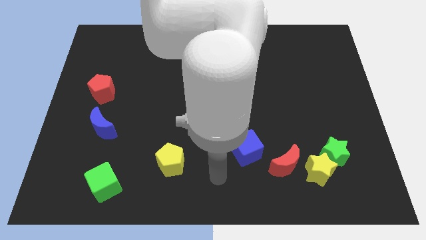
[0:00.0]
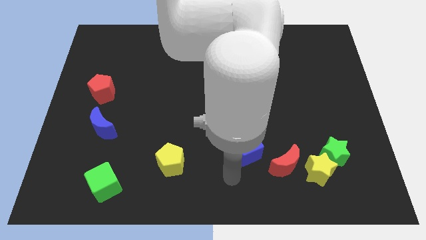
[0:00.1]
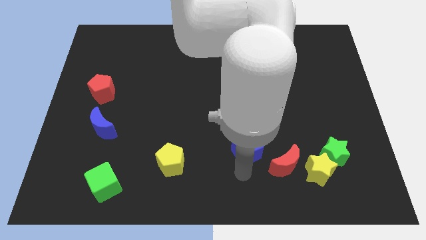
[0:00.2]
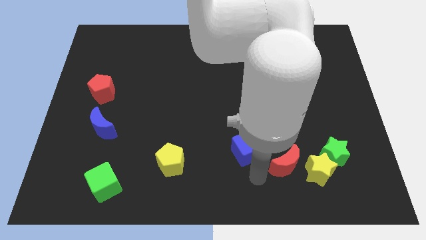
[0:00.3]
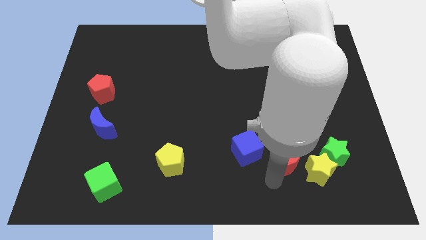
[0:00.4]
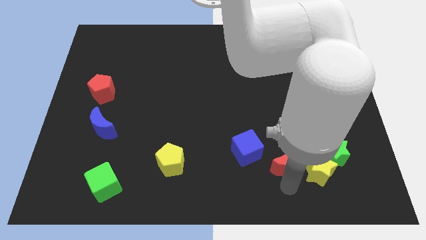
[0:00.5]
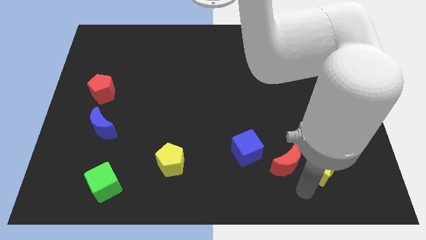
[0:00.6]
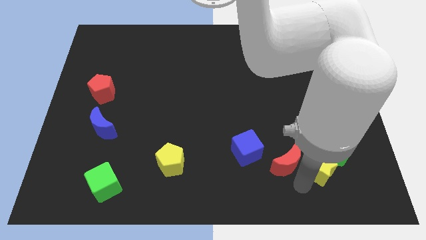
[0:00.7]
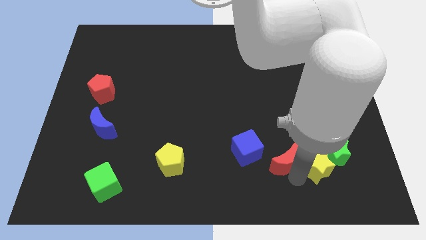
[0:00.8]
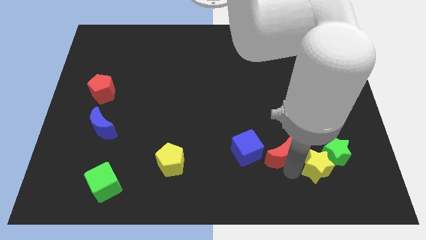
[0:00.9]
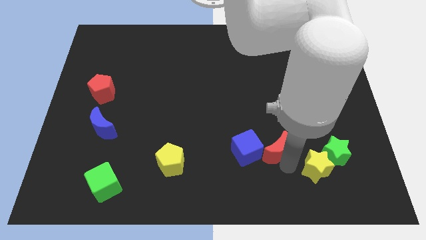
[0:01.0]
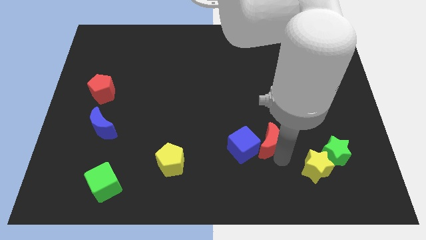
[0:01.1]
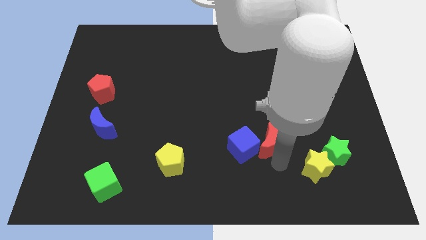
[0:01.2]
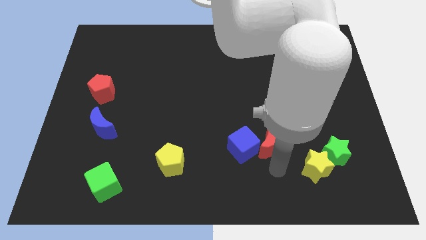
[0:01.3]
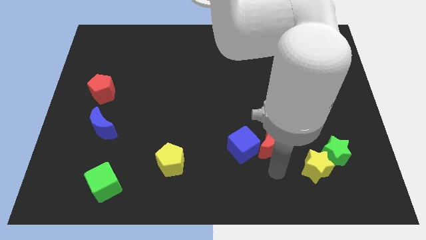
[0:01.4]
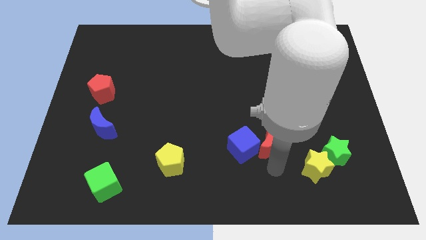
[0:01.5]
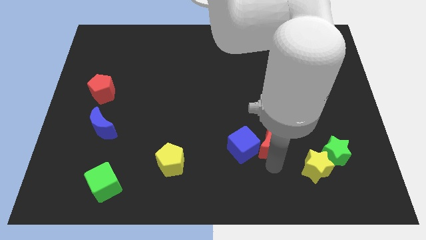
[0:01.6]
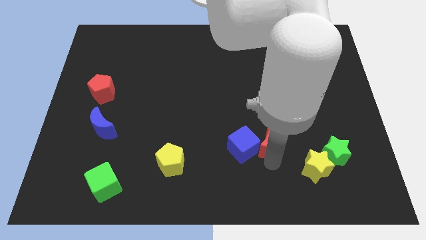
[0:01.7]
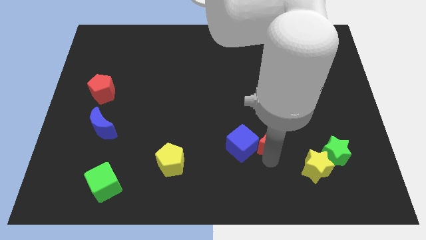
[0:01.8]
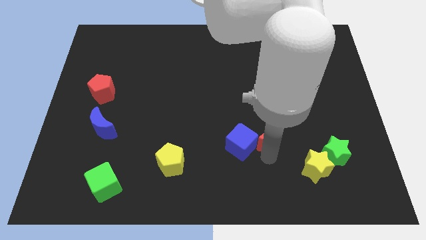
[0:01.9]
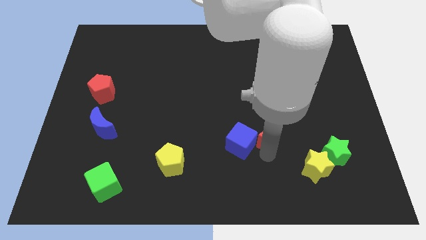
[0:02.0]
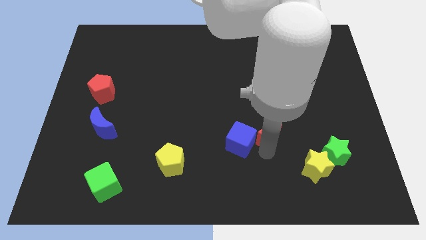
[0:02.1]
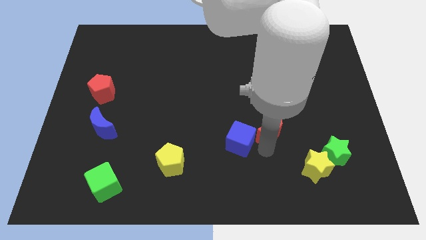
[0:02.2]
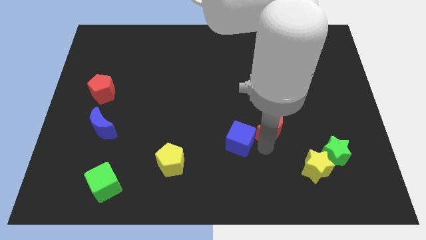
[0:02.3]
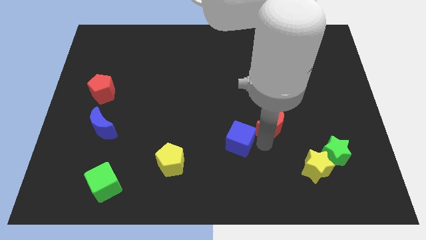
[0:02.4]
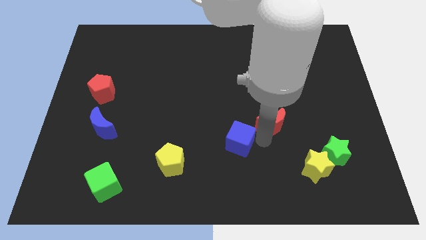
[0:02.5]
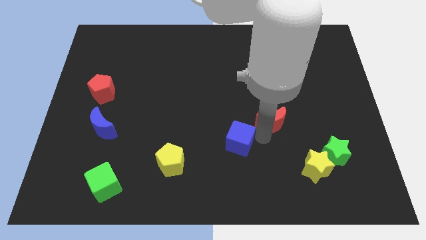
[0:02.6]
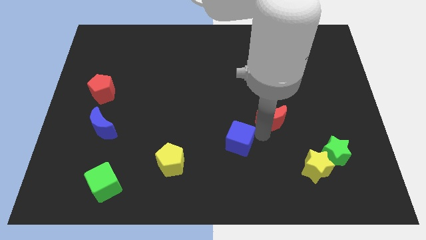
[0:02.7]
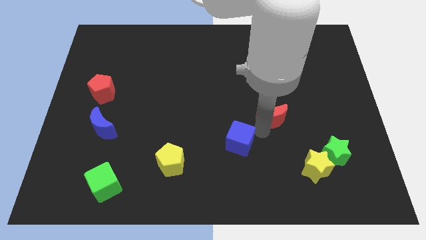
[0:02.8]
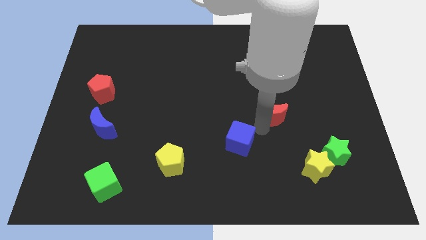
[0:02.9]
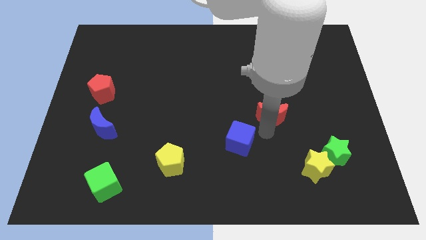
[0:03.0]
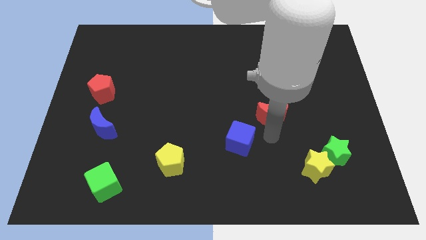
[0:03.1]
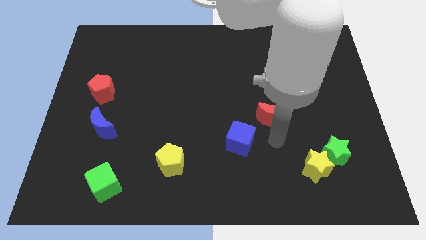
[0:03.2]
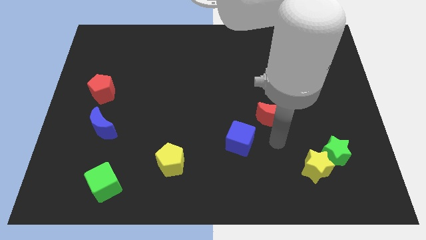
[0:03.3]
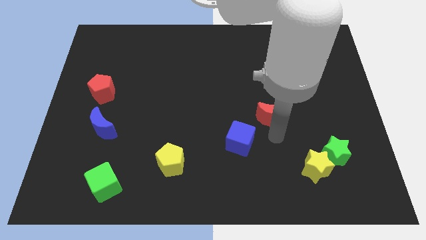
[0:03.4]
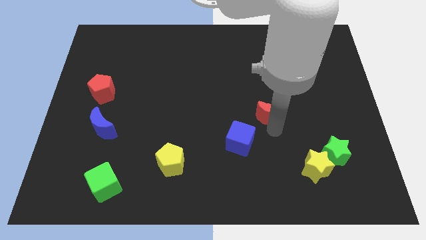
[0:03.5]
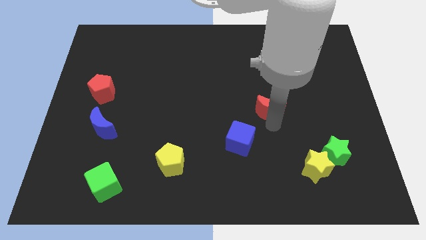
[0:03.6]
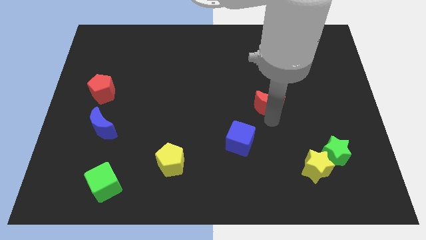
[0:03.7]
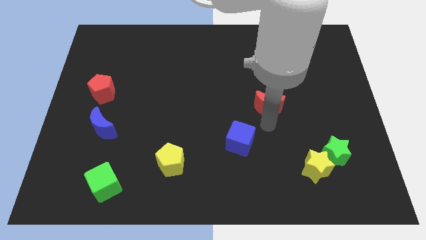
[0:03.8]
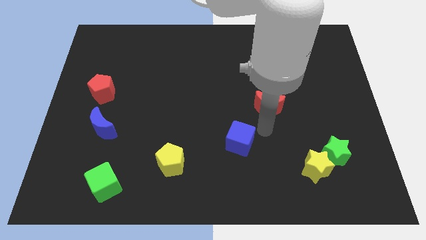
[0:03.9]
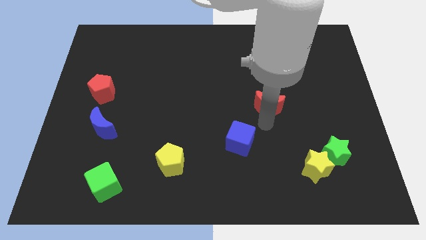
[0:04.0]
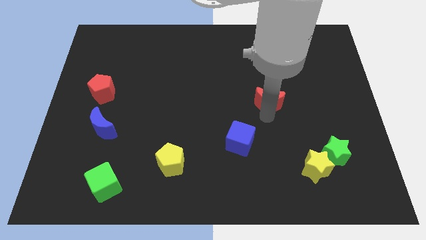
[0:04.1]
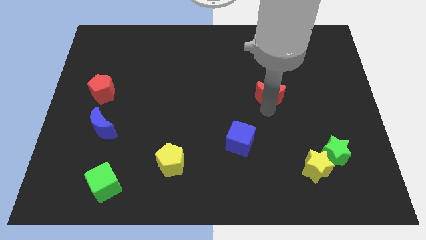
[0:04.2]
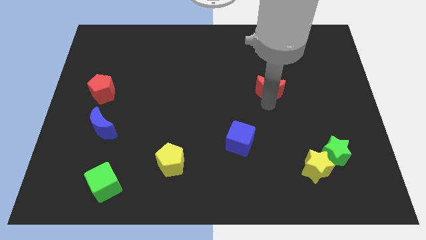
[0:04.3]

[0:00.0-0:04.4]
move the red moon up

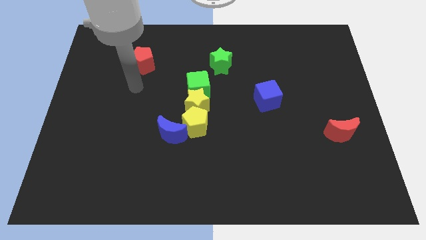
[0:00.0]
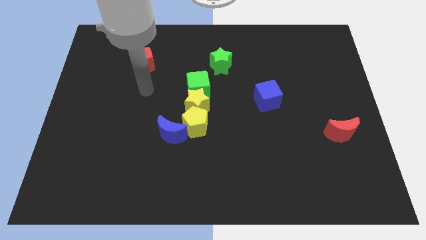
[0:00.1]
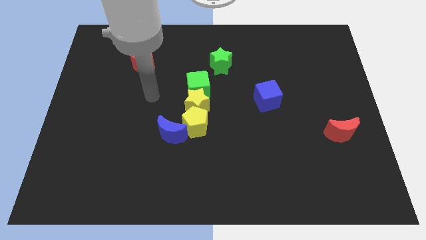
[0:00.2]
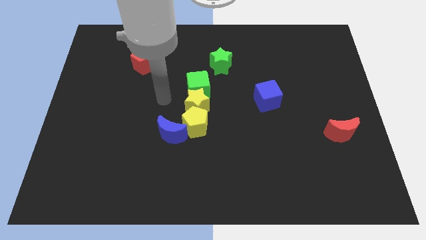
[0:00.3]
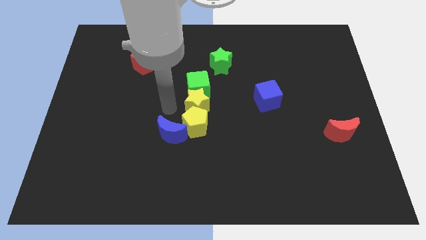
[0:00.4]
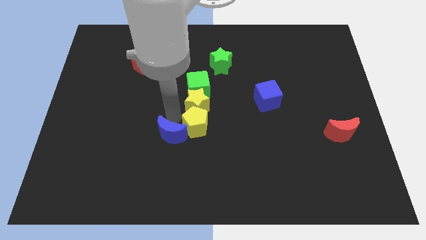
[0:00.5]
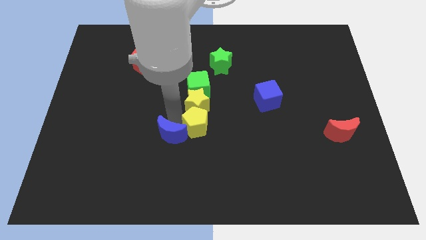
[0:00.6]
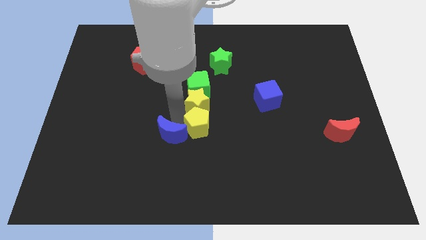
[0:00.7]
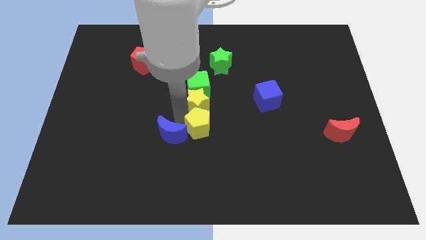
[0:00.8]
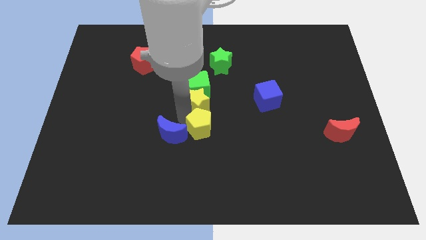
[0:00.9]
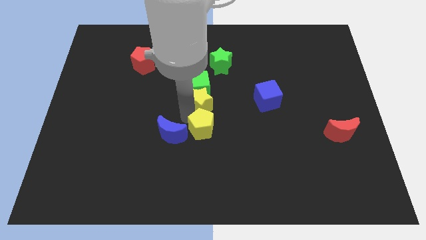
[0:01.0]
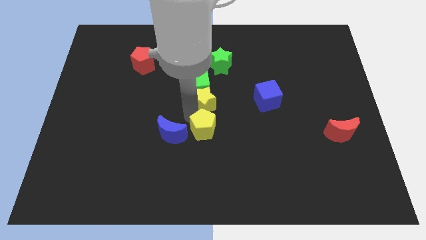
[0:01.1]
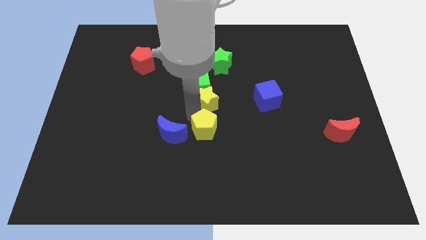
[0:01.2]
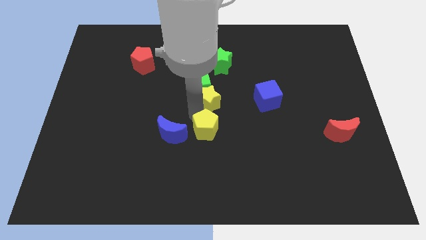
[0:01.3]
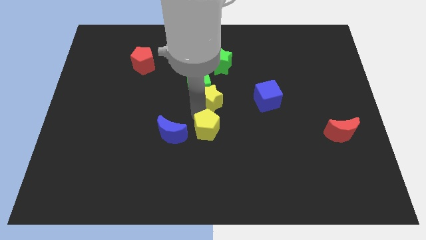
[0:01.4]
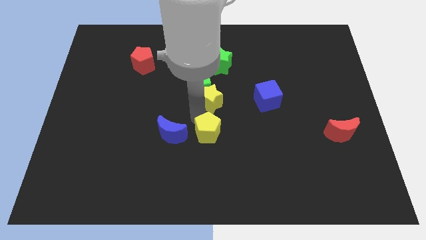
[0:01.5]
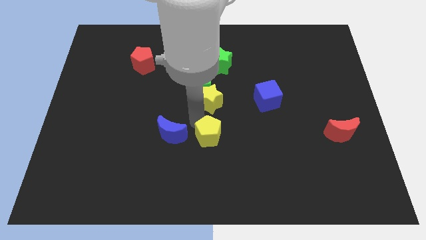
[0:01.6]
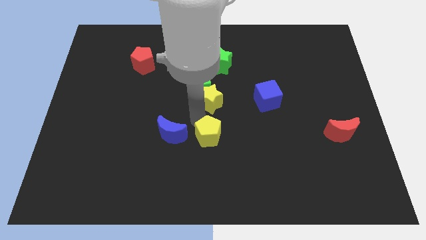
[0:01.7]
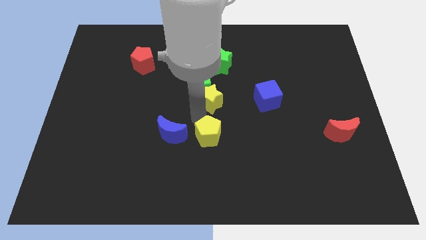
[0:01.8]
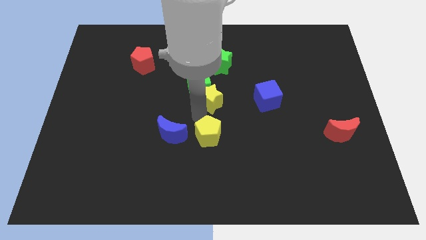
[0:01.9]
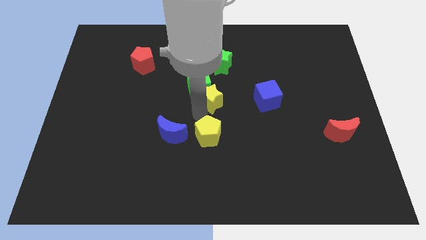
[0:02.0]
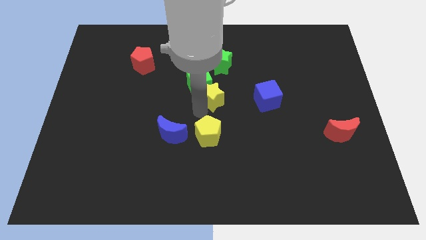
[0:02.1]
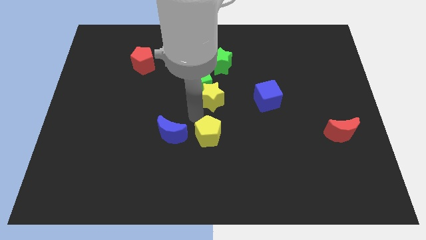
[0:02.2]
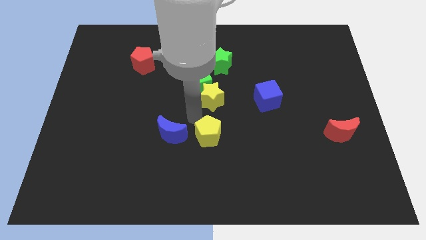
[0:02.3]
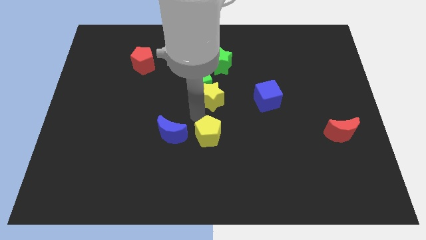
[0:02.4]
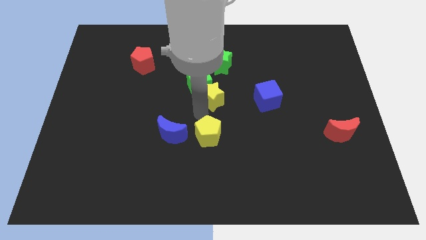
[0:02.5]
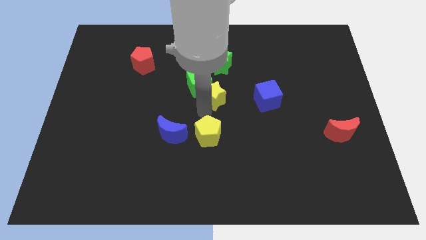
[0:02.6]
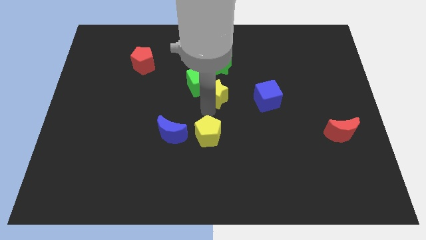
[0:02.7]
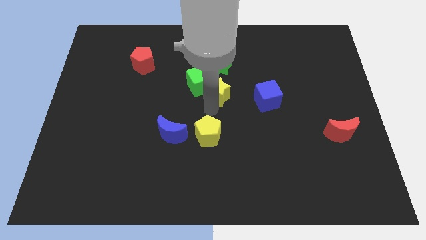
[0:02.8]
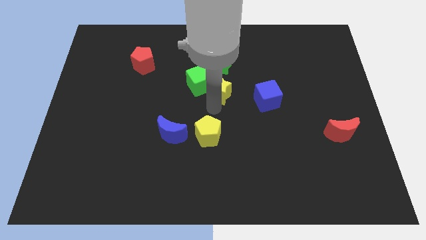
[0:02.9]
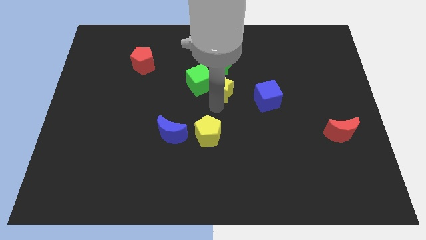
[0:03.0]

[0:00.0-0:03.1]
slightly push the yellow star up and then right
